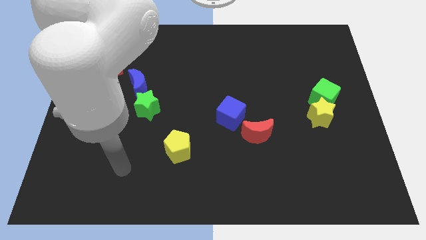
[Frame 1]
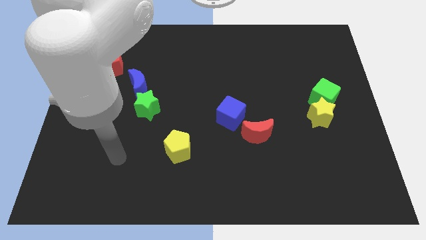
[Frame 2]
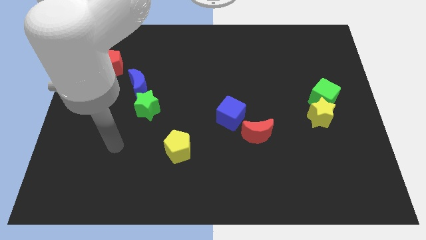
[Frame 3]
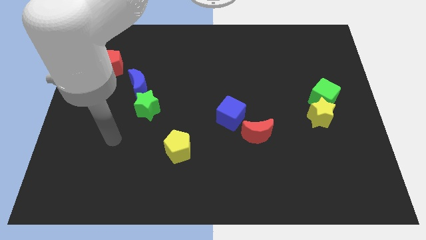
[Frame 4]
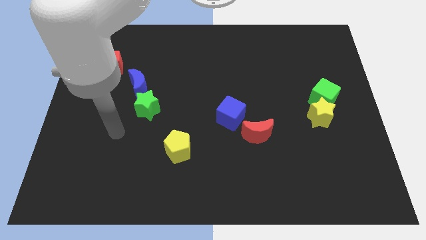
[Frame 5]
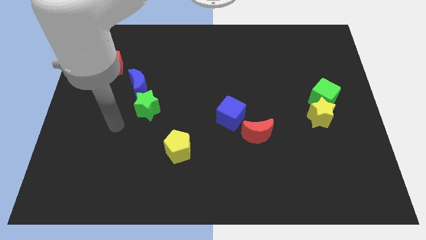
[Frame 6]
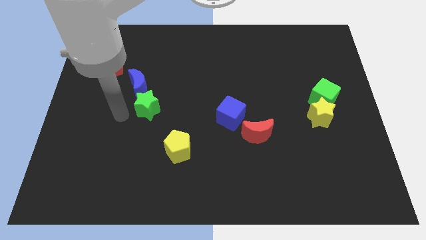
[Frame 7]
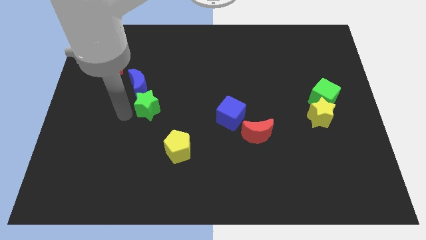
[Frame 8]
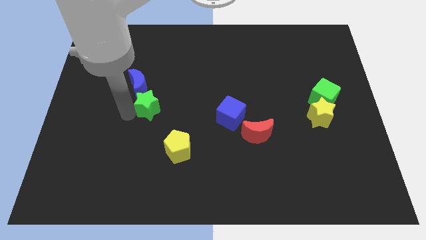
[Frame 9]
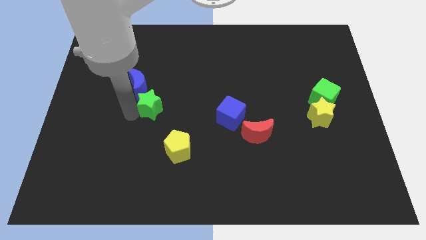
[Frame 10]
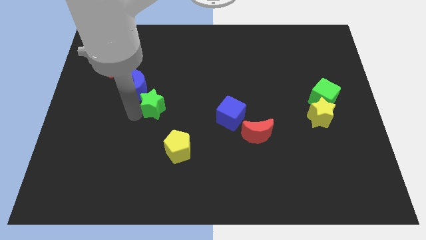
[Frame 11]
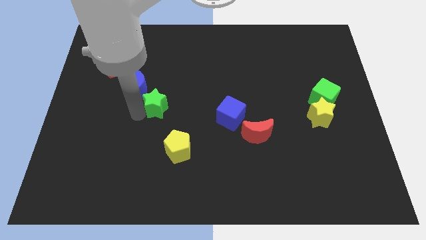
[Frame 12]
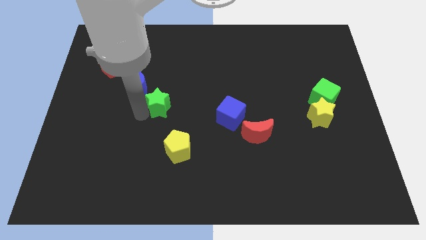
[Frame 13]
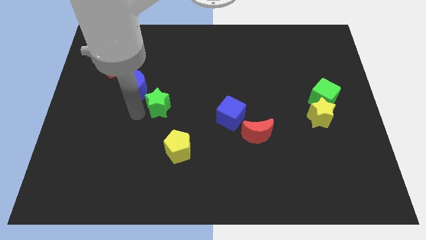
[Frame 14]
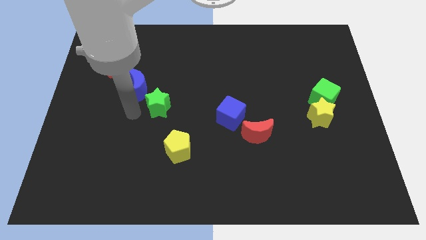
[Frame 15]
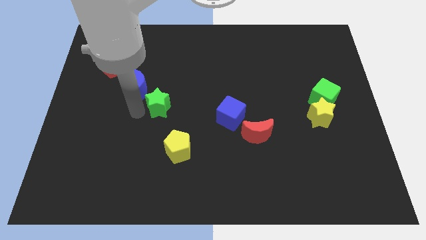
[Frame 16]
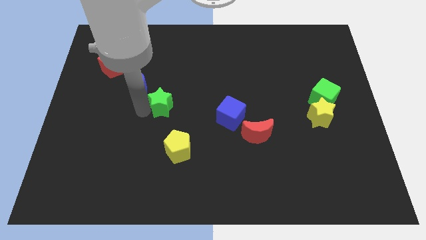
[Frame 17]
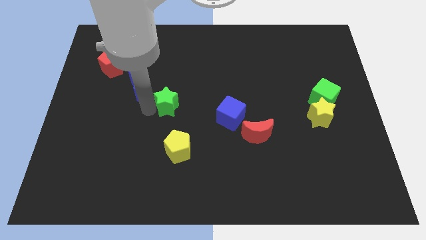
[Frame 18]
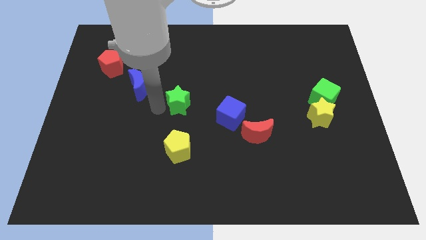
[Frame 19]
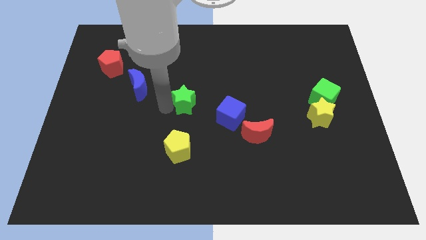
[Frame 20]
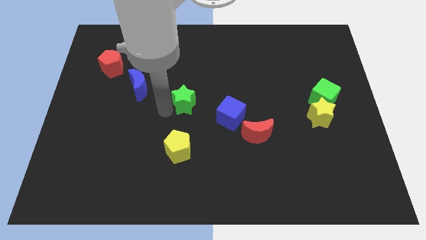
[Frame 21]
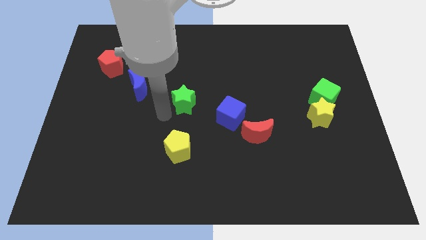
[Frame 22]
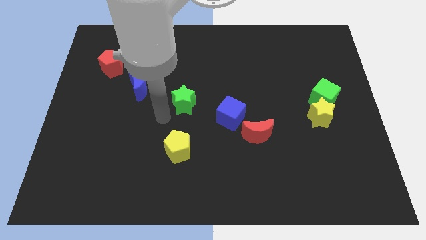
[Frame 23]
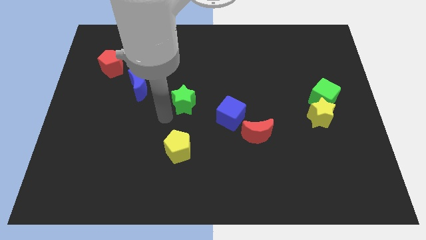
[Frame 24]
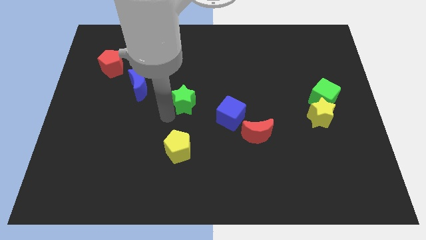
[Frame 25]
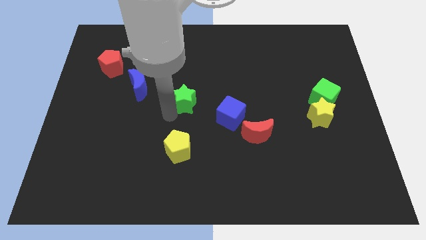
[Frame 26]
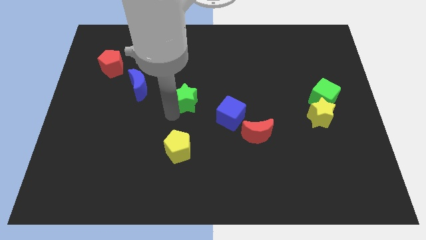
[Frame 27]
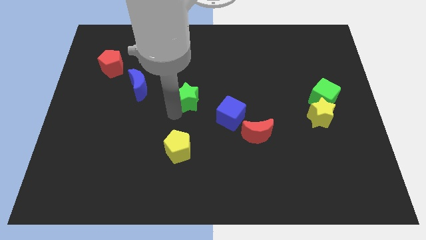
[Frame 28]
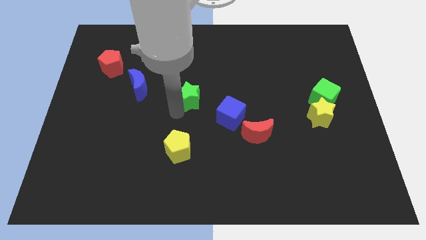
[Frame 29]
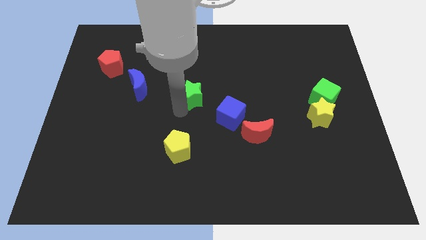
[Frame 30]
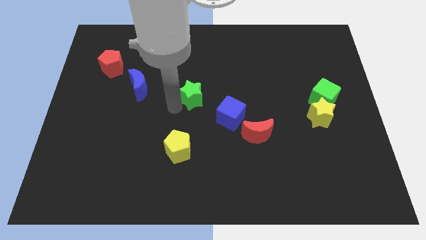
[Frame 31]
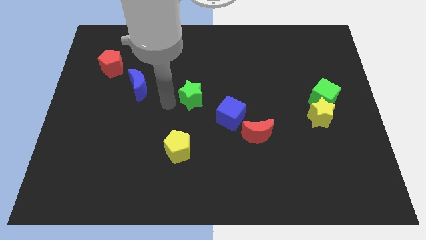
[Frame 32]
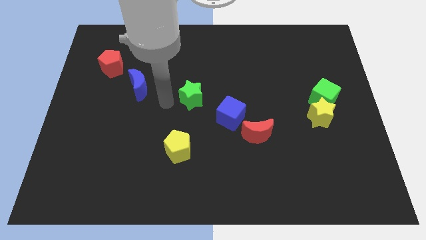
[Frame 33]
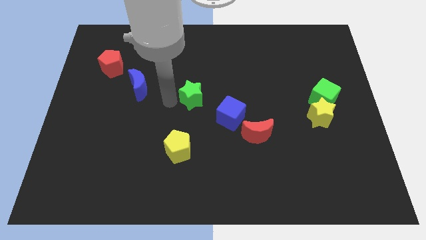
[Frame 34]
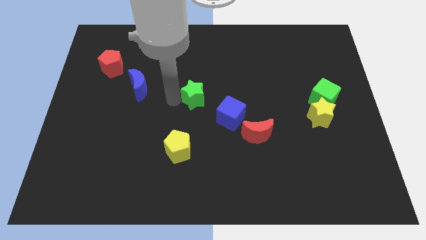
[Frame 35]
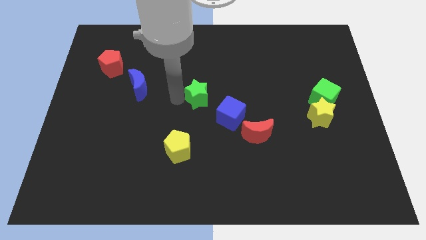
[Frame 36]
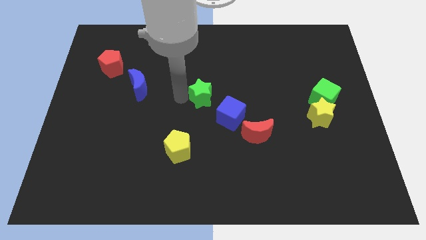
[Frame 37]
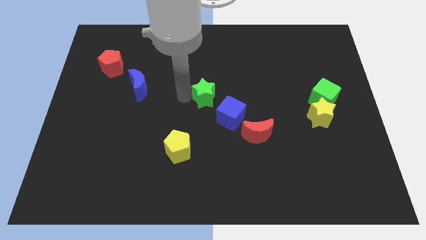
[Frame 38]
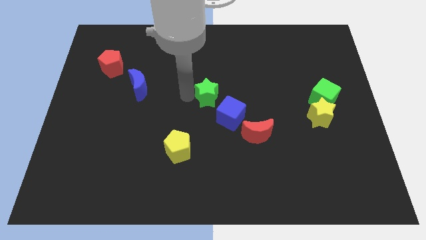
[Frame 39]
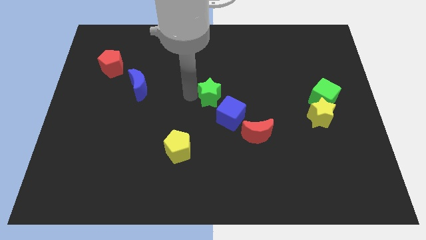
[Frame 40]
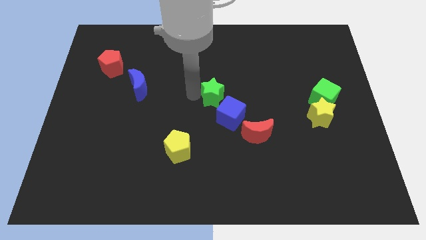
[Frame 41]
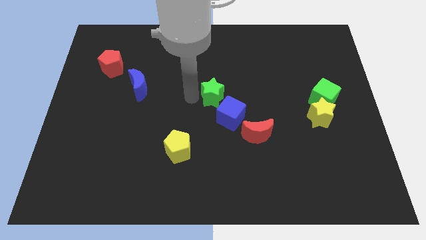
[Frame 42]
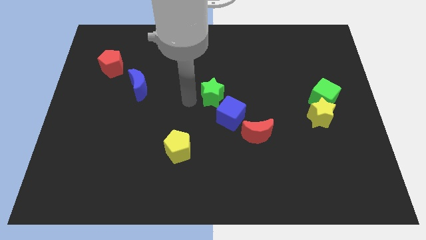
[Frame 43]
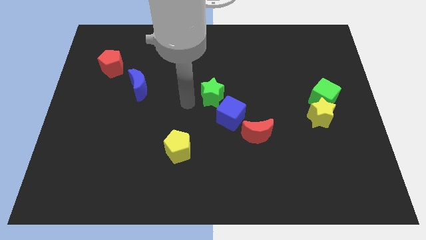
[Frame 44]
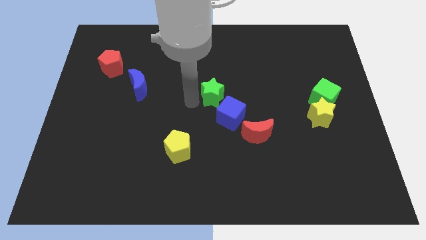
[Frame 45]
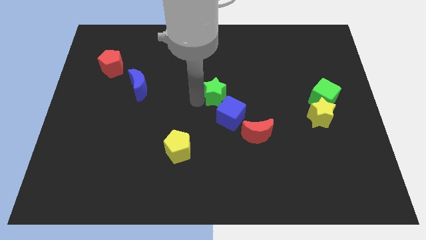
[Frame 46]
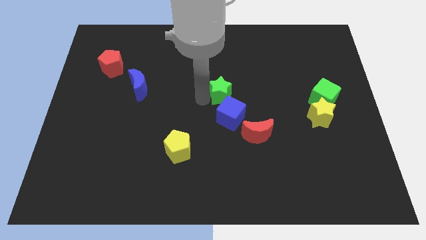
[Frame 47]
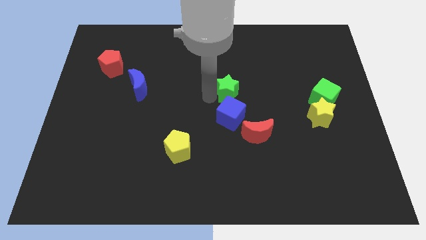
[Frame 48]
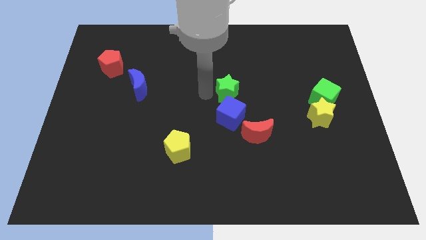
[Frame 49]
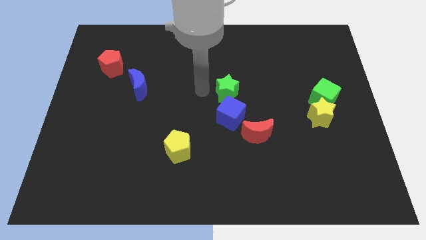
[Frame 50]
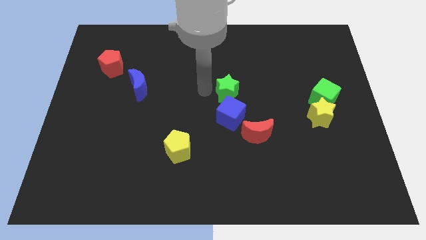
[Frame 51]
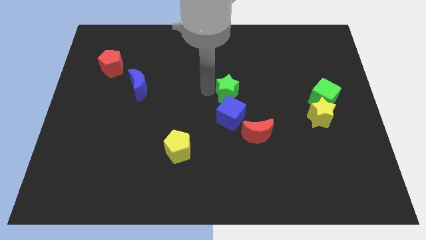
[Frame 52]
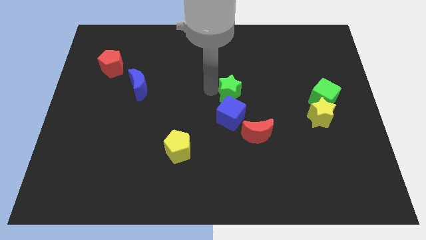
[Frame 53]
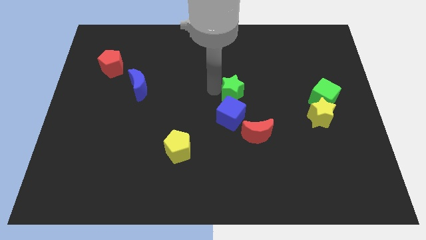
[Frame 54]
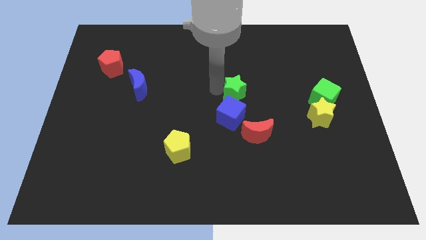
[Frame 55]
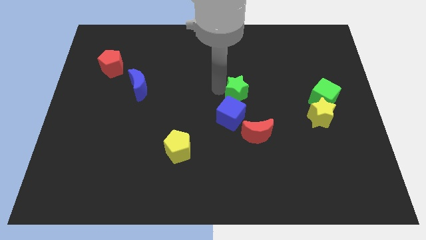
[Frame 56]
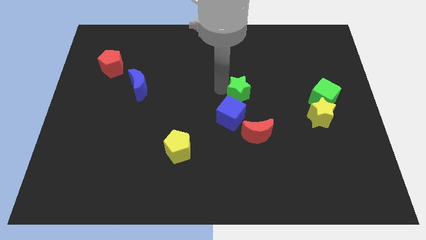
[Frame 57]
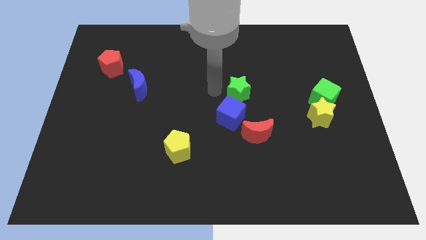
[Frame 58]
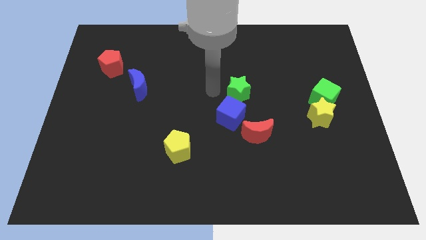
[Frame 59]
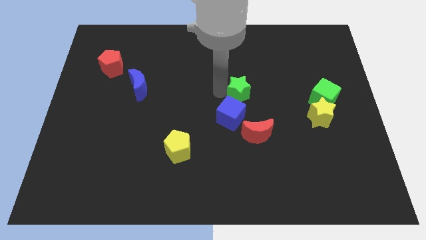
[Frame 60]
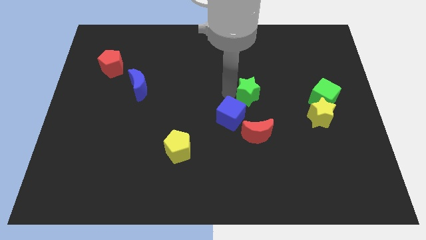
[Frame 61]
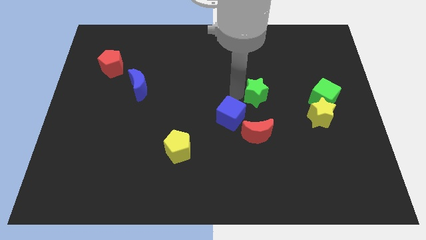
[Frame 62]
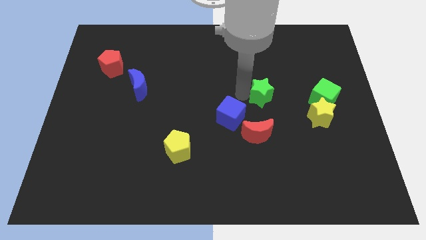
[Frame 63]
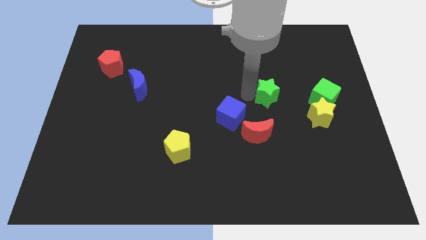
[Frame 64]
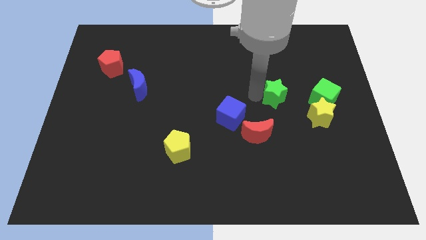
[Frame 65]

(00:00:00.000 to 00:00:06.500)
slide the green star to the top left side of the yellow star
